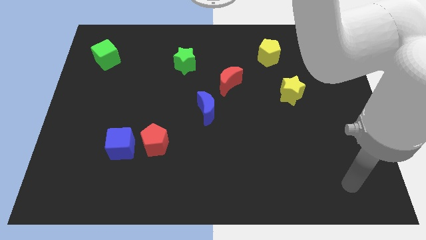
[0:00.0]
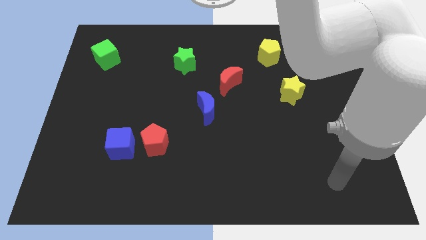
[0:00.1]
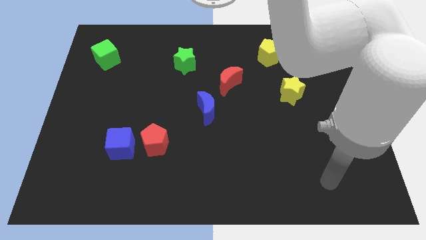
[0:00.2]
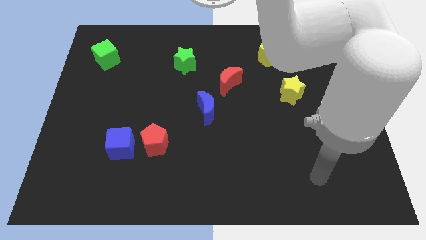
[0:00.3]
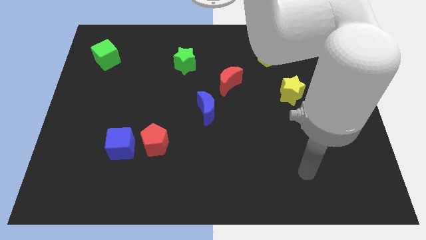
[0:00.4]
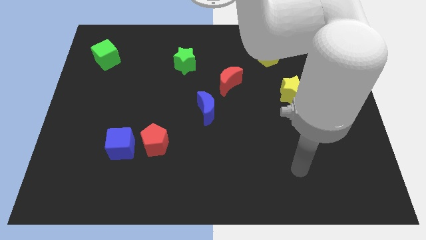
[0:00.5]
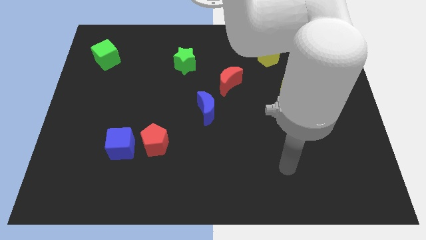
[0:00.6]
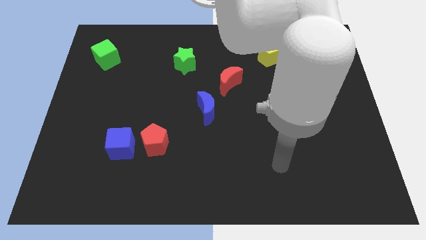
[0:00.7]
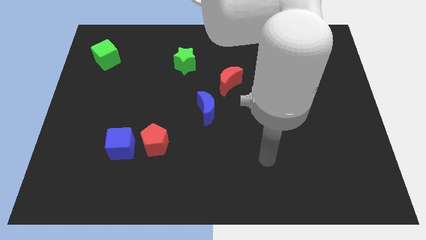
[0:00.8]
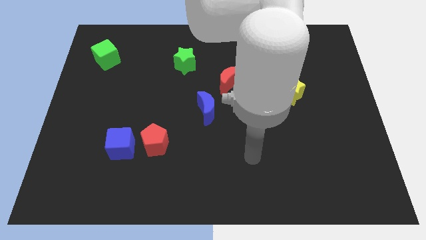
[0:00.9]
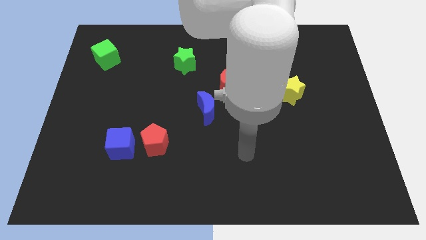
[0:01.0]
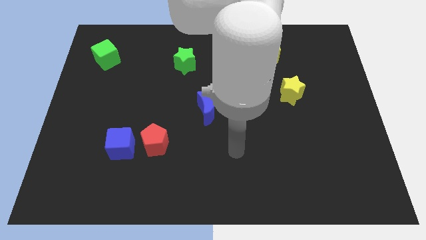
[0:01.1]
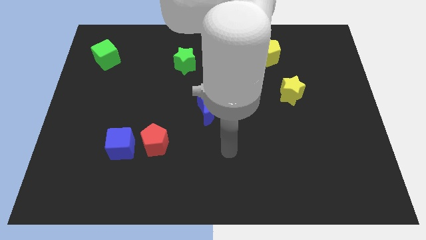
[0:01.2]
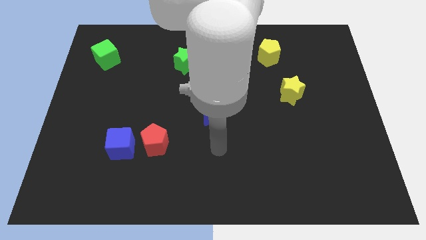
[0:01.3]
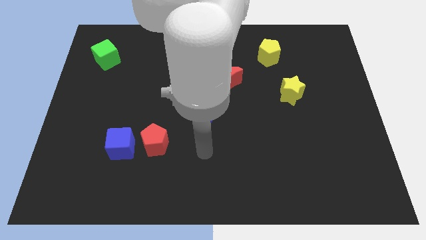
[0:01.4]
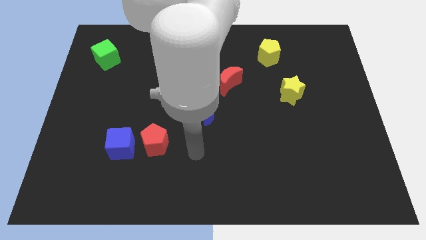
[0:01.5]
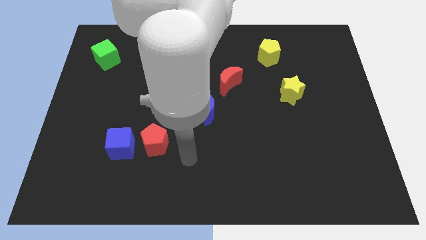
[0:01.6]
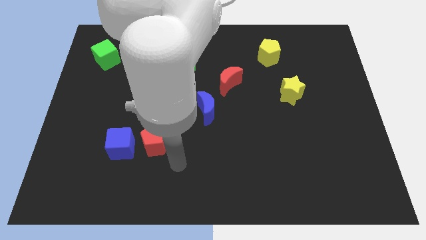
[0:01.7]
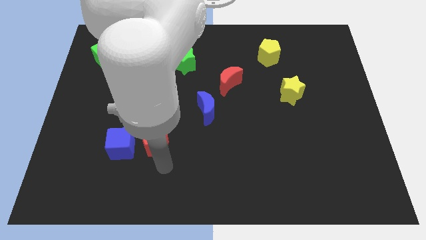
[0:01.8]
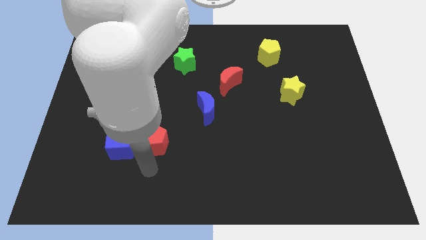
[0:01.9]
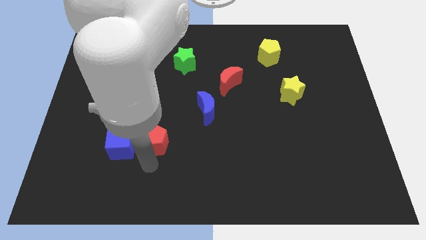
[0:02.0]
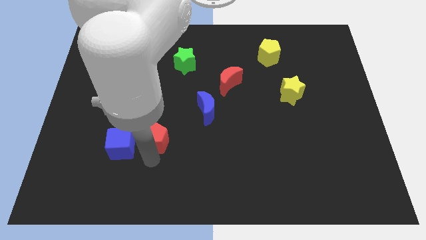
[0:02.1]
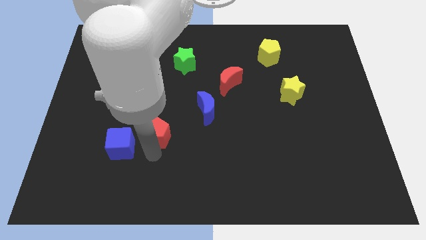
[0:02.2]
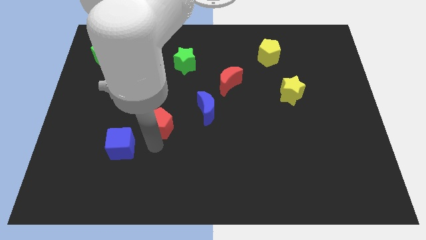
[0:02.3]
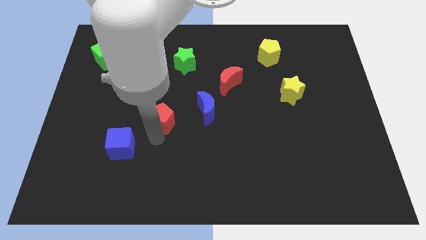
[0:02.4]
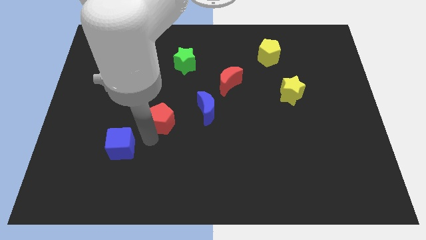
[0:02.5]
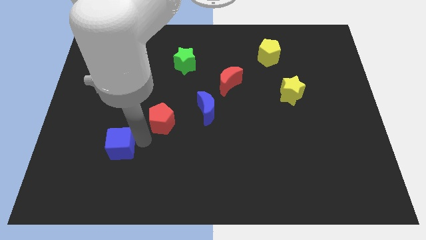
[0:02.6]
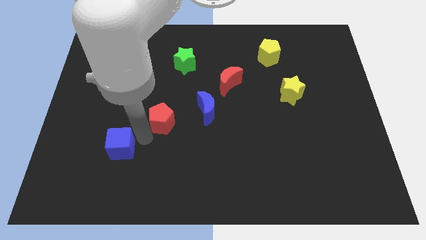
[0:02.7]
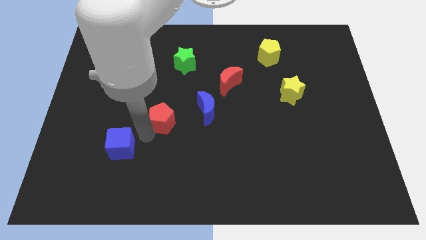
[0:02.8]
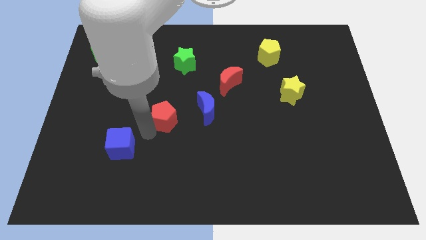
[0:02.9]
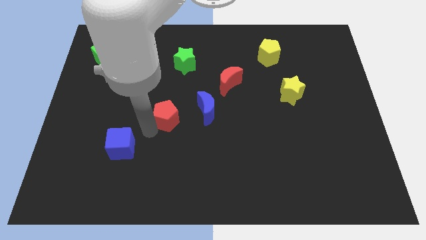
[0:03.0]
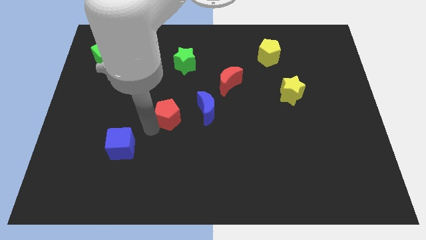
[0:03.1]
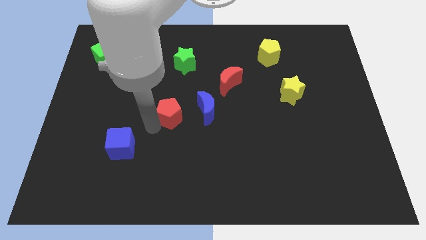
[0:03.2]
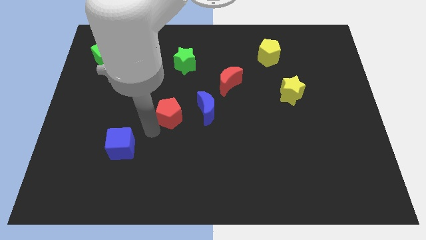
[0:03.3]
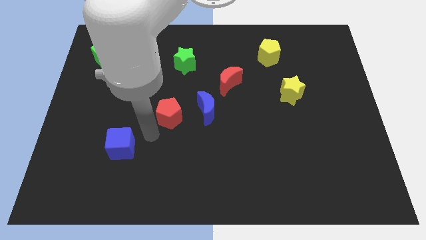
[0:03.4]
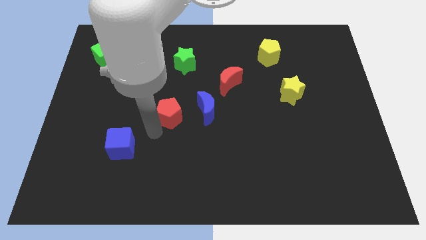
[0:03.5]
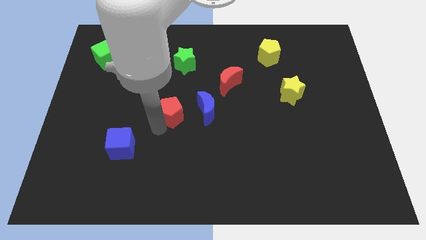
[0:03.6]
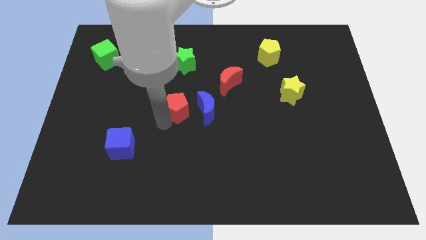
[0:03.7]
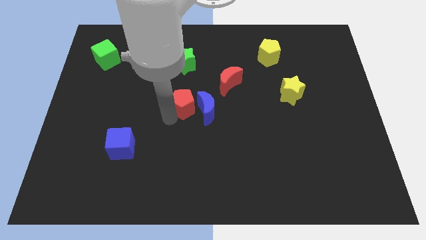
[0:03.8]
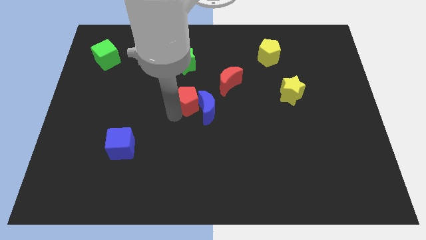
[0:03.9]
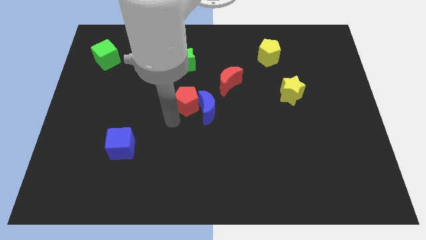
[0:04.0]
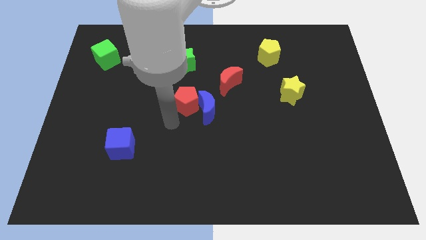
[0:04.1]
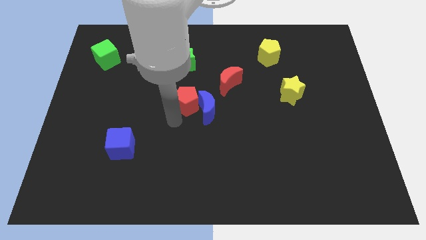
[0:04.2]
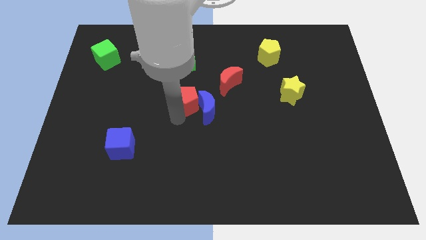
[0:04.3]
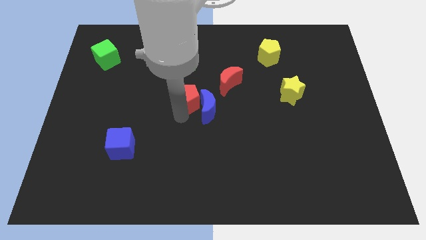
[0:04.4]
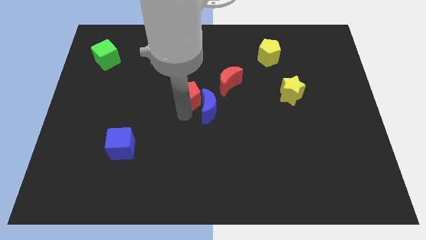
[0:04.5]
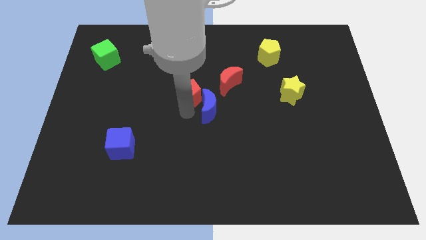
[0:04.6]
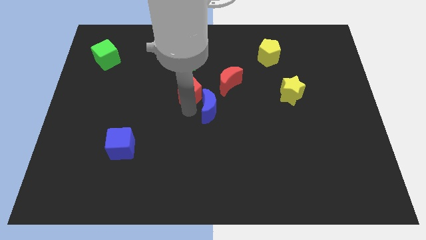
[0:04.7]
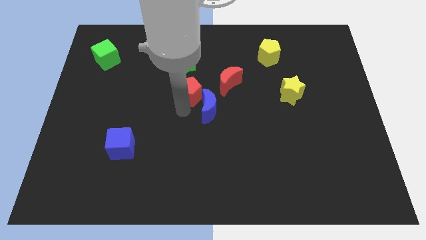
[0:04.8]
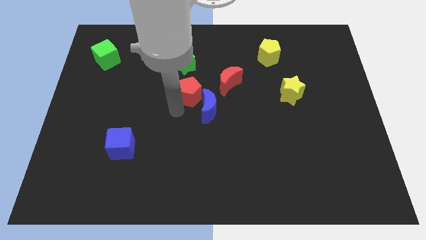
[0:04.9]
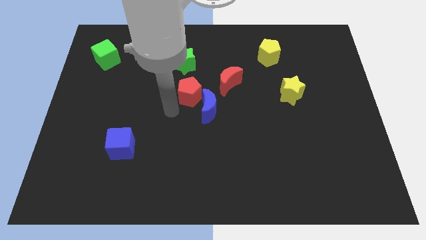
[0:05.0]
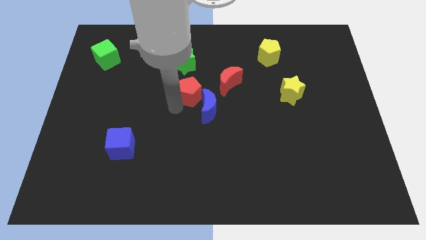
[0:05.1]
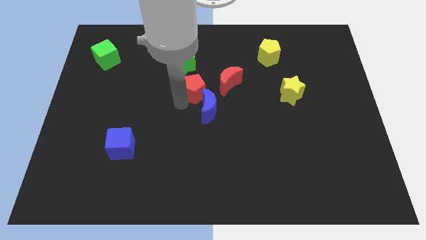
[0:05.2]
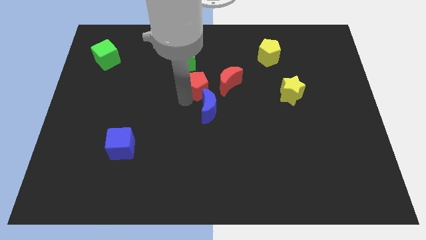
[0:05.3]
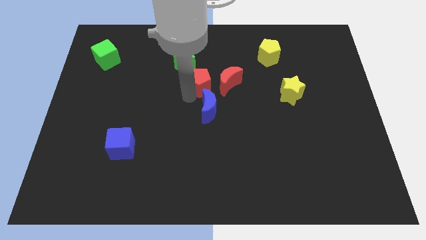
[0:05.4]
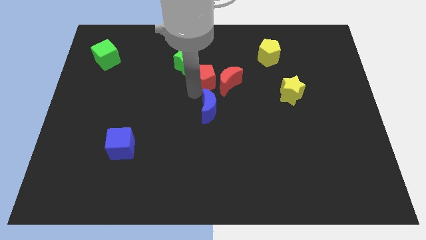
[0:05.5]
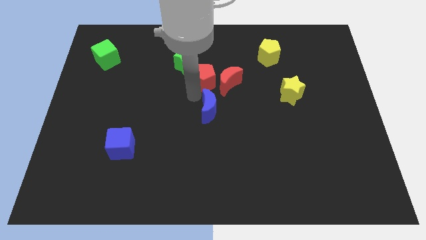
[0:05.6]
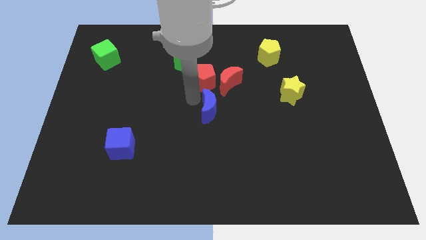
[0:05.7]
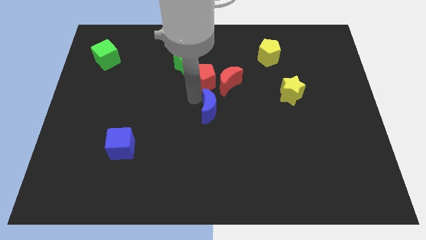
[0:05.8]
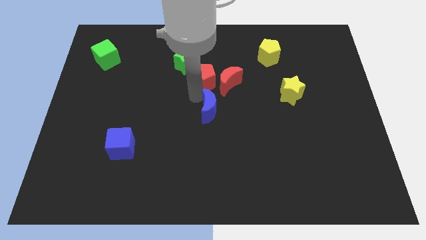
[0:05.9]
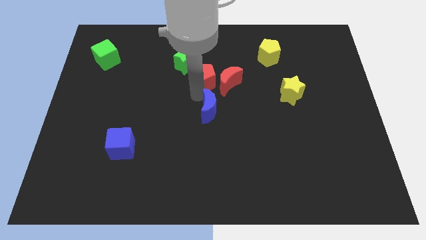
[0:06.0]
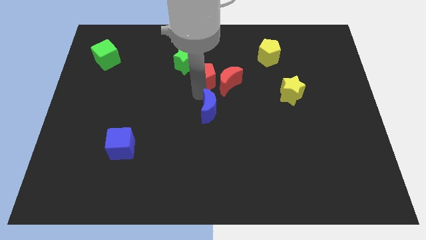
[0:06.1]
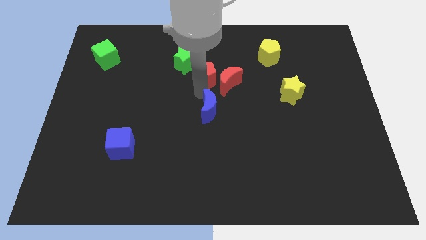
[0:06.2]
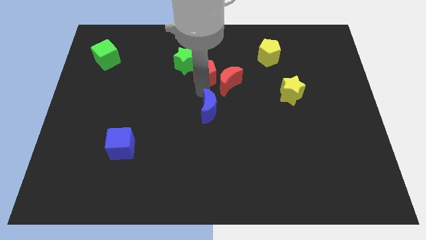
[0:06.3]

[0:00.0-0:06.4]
slide the red pentagon right of the green star

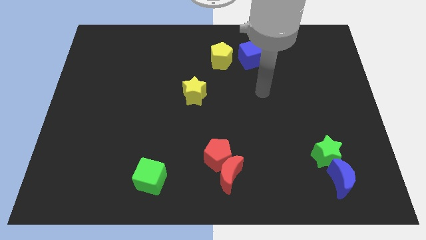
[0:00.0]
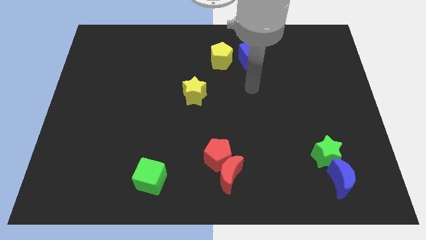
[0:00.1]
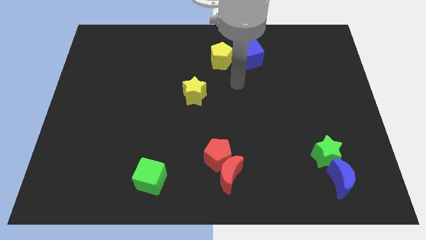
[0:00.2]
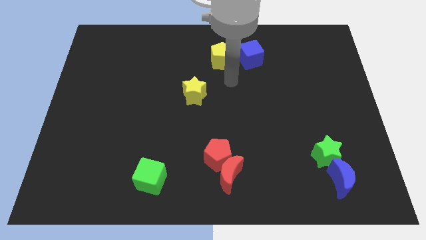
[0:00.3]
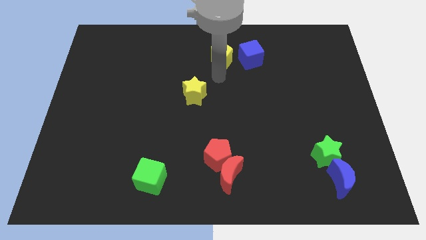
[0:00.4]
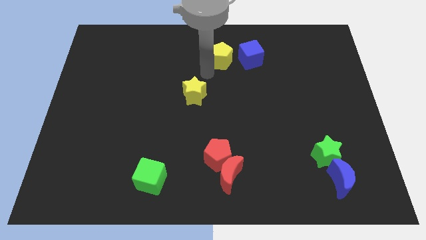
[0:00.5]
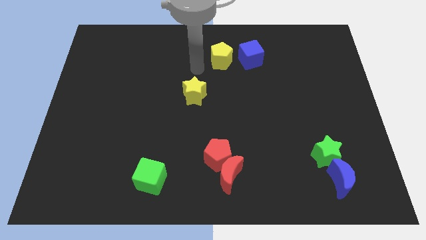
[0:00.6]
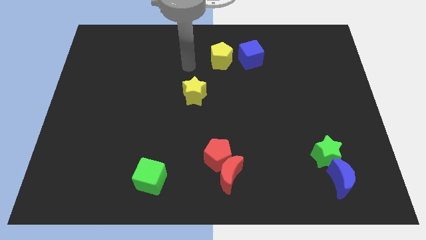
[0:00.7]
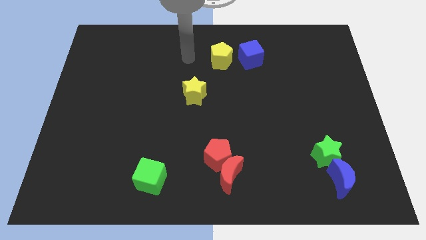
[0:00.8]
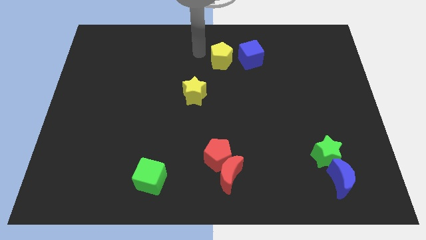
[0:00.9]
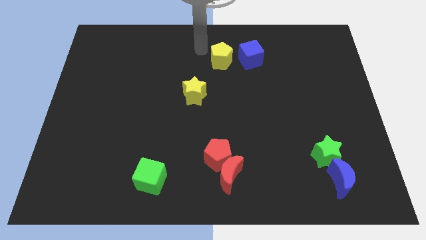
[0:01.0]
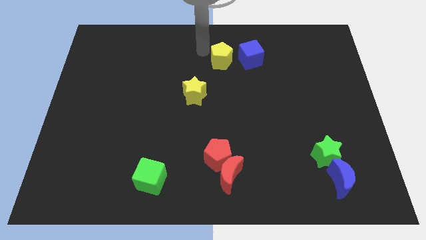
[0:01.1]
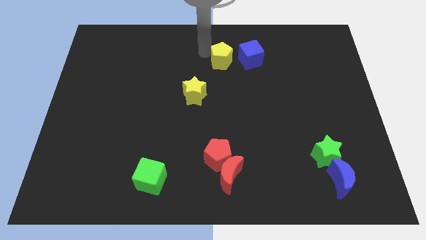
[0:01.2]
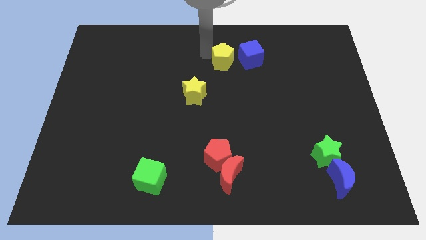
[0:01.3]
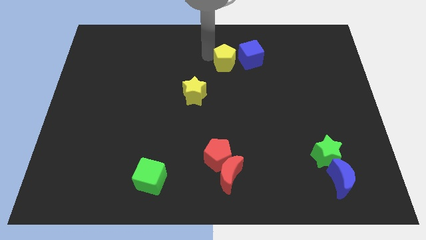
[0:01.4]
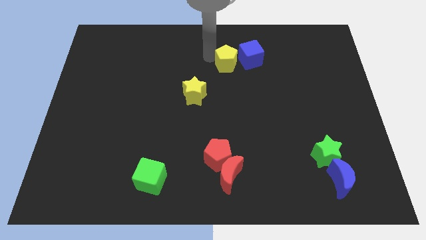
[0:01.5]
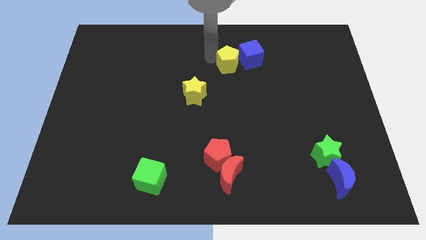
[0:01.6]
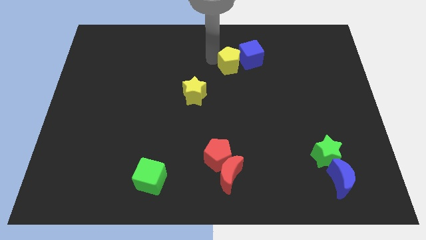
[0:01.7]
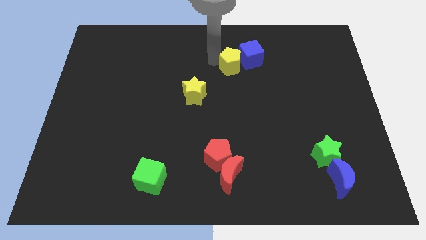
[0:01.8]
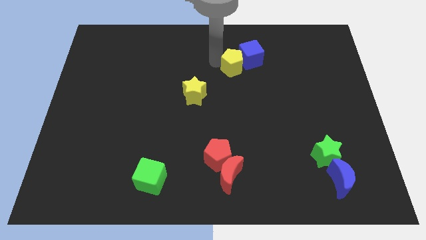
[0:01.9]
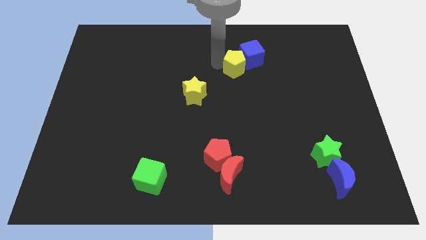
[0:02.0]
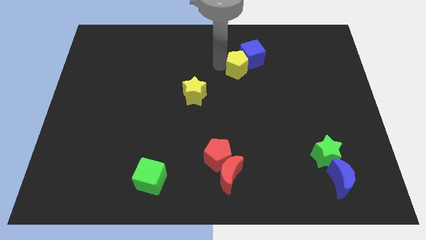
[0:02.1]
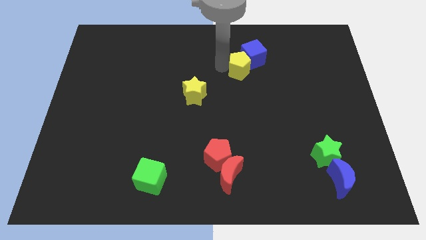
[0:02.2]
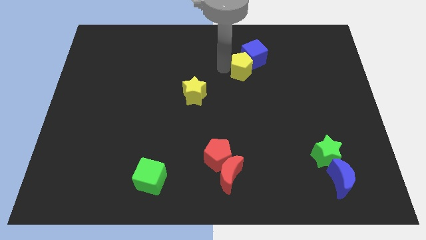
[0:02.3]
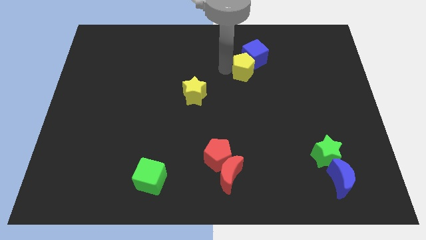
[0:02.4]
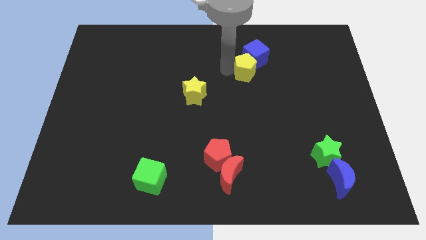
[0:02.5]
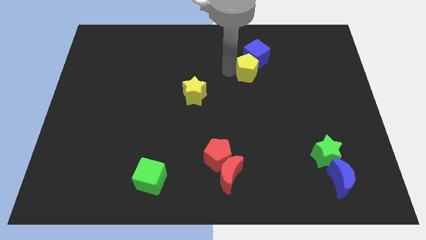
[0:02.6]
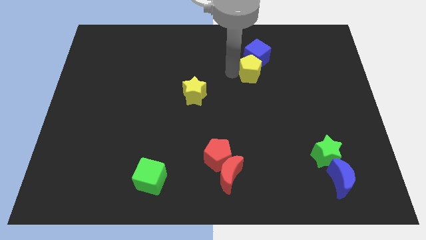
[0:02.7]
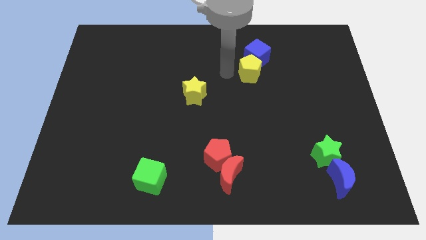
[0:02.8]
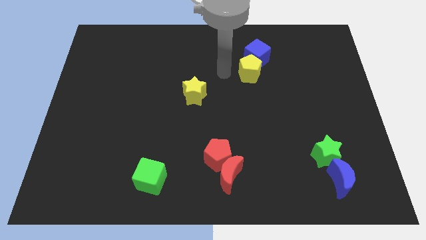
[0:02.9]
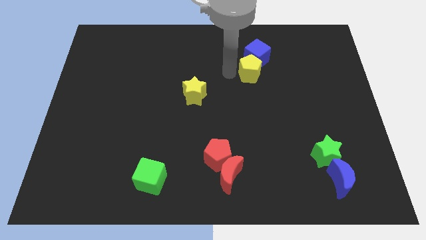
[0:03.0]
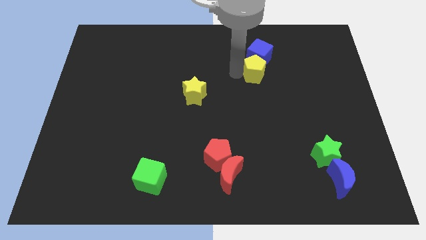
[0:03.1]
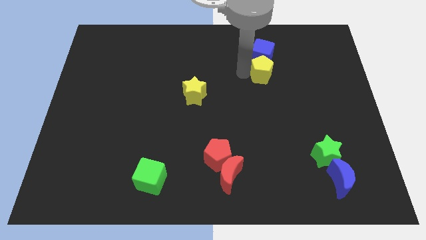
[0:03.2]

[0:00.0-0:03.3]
push the yellow pentagon diagonally down and to the right of the blue cube
